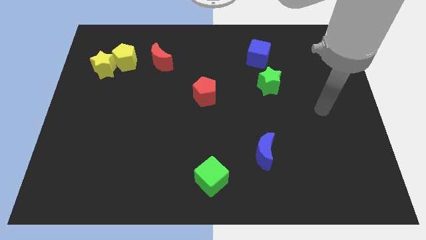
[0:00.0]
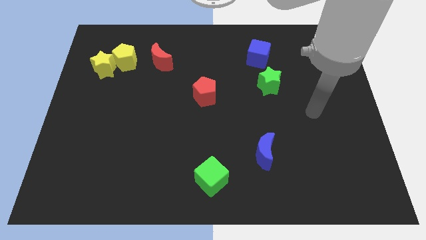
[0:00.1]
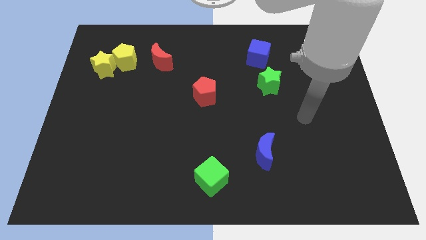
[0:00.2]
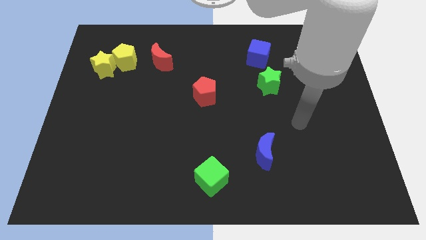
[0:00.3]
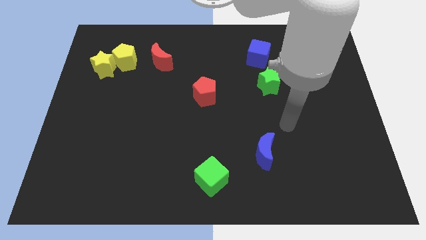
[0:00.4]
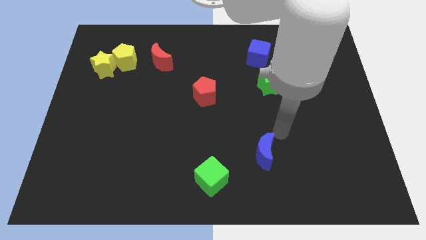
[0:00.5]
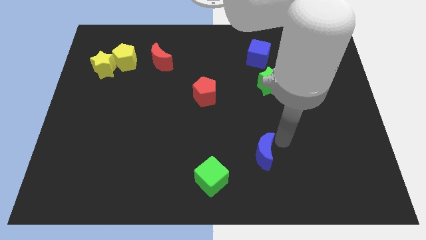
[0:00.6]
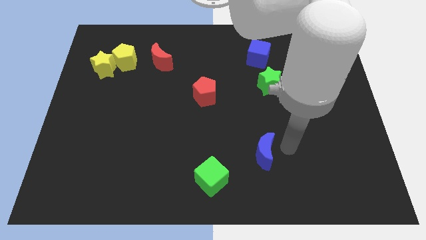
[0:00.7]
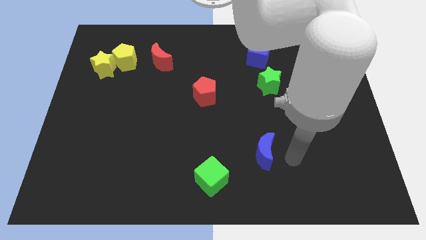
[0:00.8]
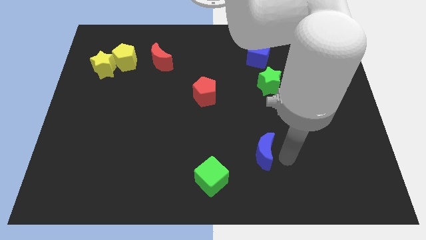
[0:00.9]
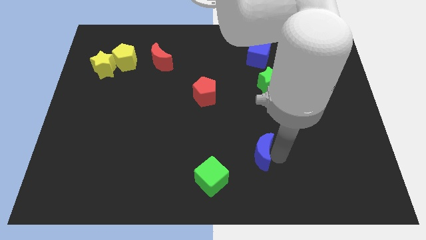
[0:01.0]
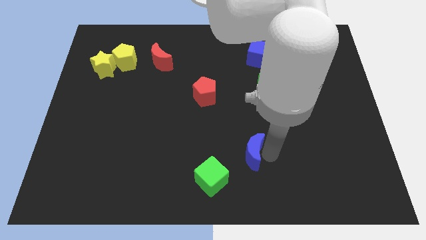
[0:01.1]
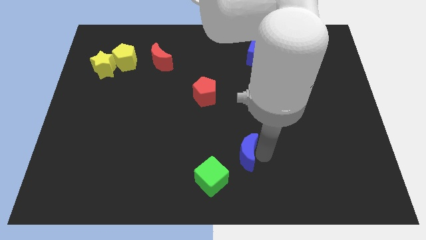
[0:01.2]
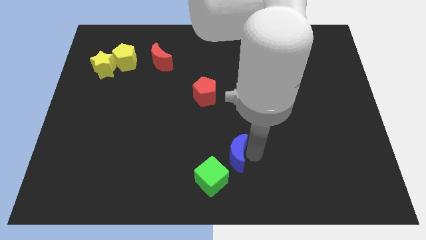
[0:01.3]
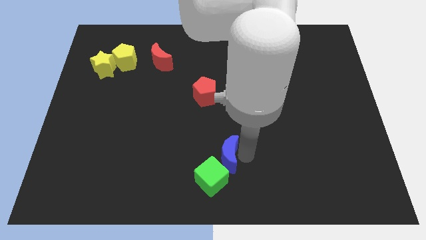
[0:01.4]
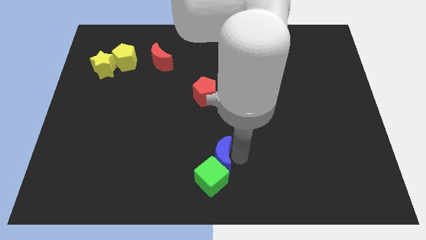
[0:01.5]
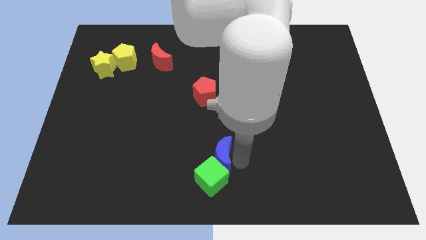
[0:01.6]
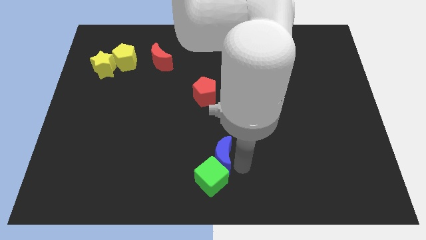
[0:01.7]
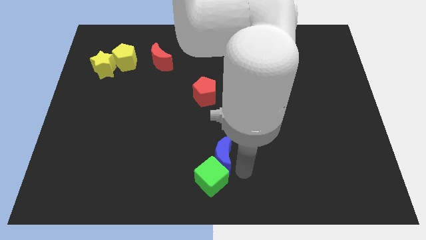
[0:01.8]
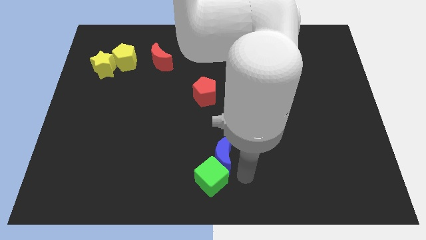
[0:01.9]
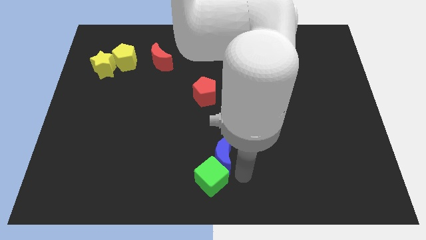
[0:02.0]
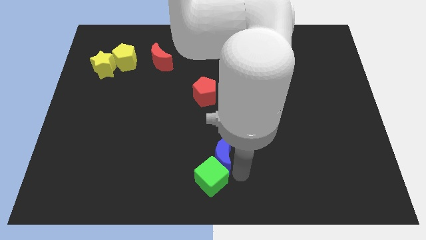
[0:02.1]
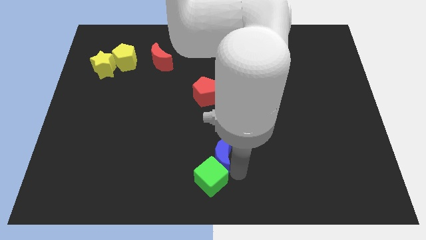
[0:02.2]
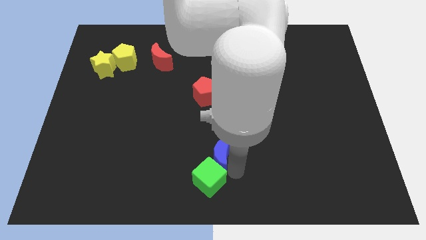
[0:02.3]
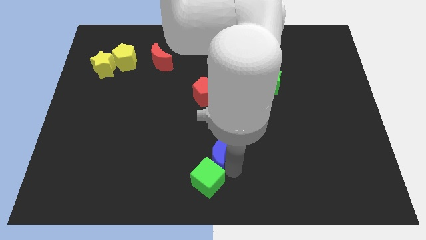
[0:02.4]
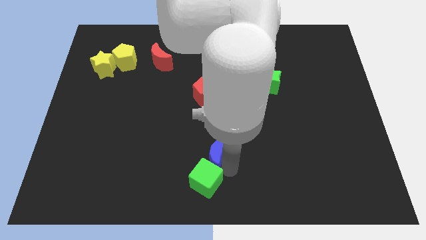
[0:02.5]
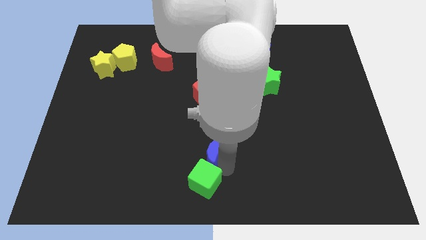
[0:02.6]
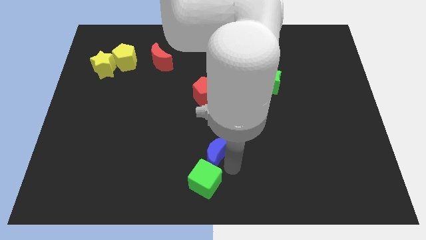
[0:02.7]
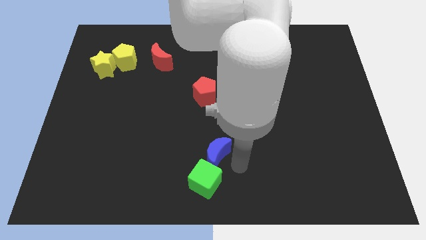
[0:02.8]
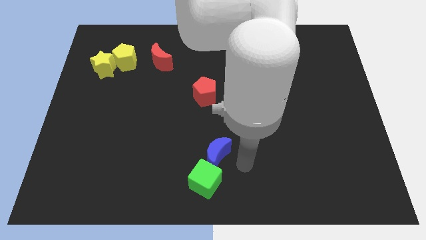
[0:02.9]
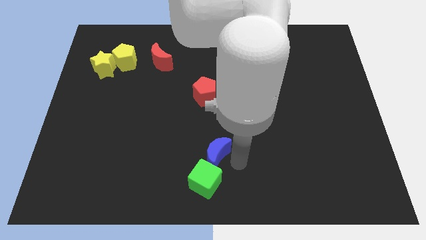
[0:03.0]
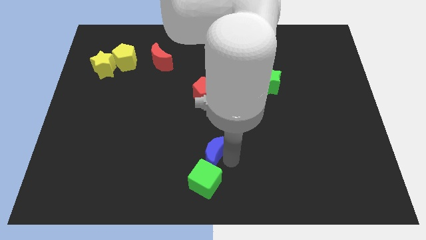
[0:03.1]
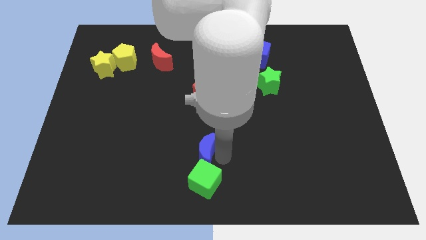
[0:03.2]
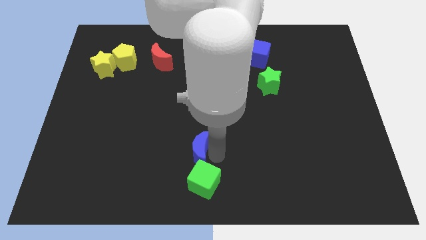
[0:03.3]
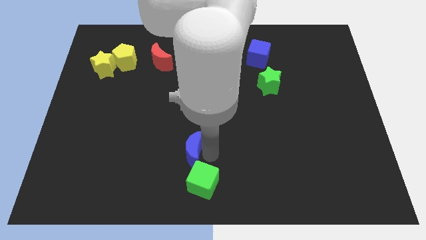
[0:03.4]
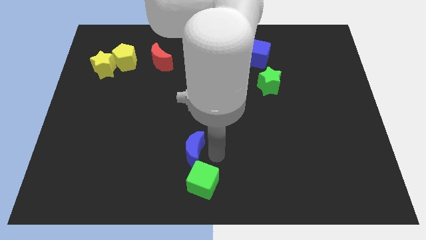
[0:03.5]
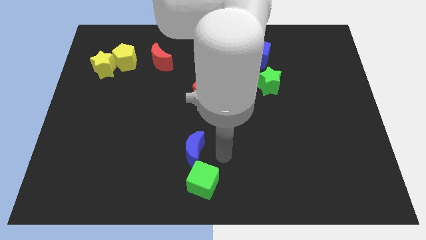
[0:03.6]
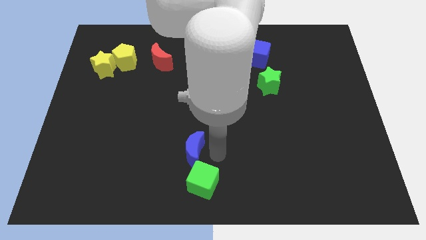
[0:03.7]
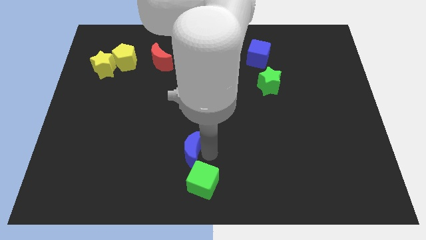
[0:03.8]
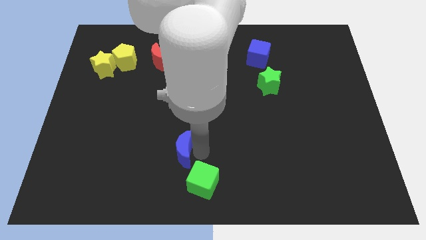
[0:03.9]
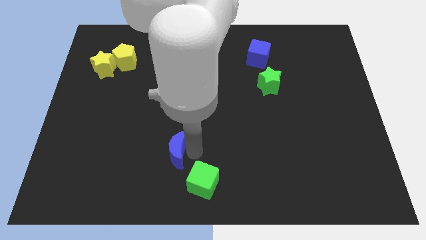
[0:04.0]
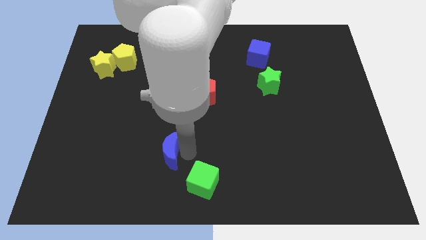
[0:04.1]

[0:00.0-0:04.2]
move the blue moon to the left

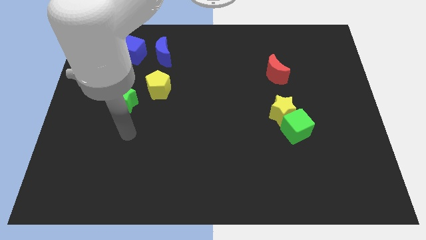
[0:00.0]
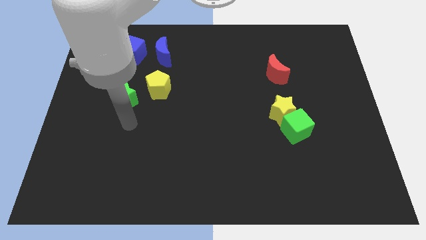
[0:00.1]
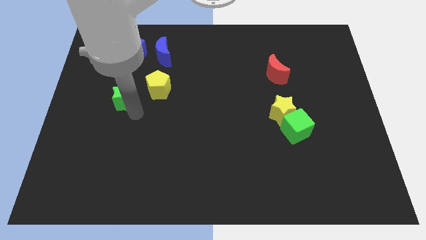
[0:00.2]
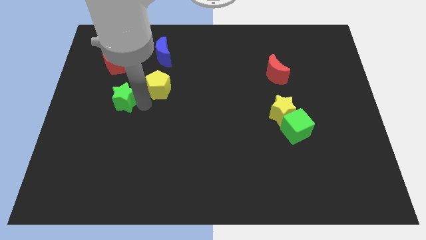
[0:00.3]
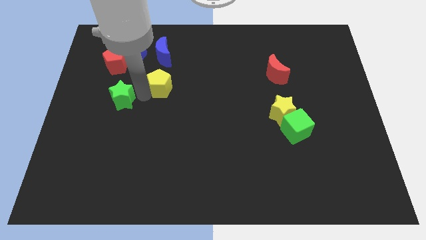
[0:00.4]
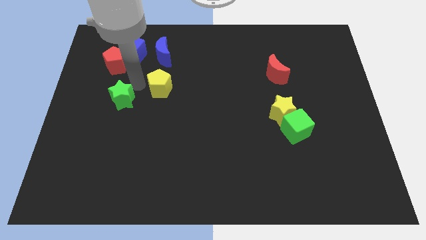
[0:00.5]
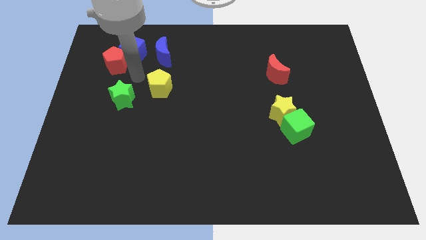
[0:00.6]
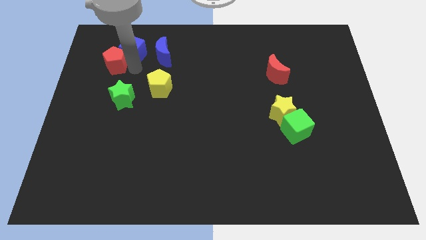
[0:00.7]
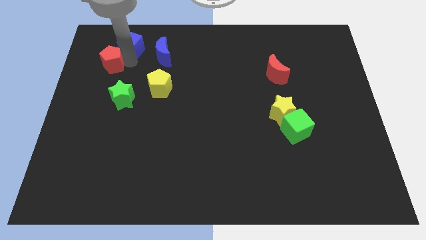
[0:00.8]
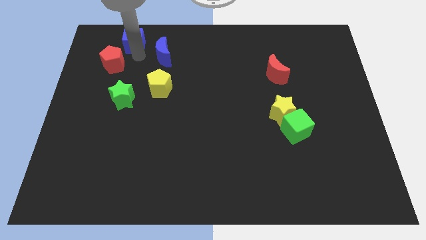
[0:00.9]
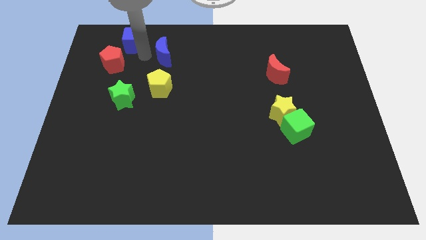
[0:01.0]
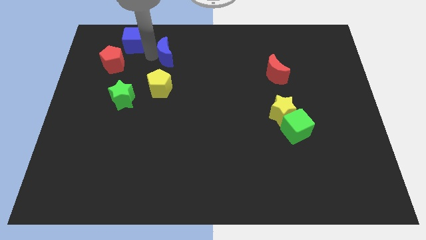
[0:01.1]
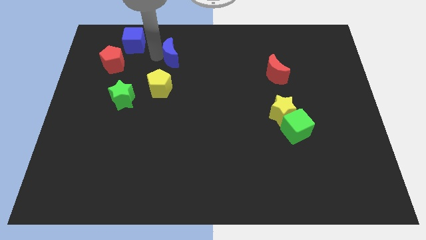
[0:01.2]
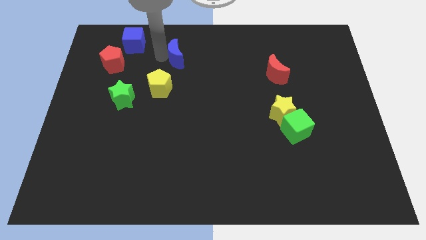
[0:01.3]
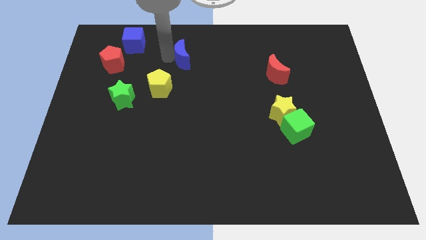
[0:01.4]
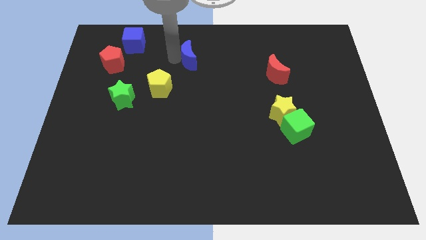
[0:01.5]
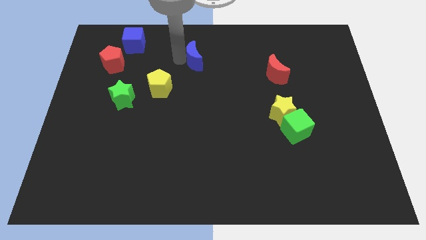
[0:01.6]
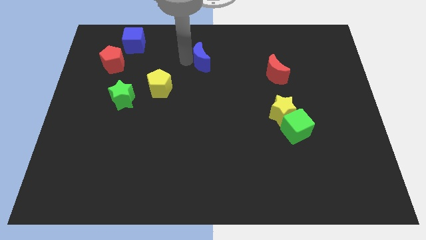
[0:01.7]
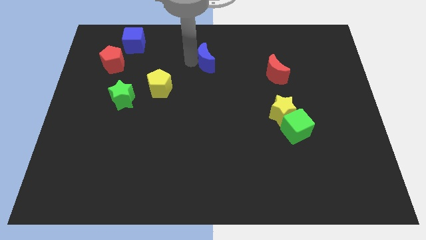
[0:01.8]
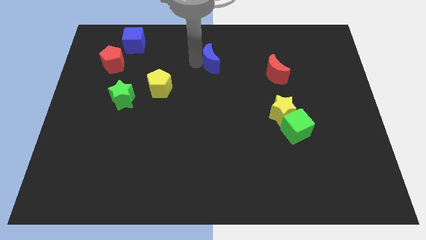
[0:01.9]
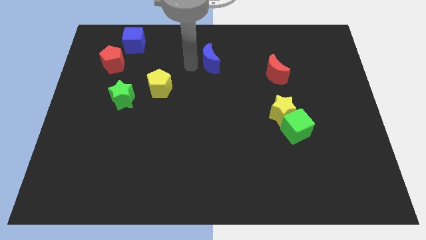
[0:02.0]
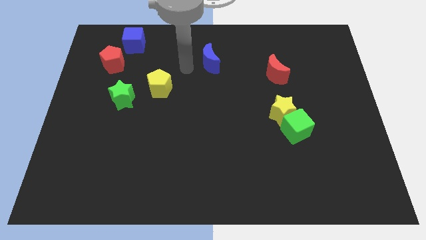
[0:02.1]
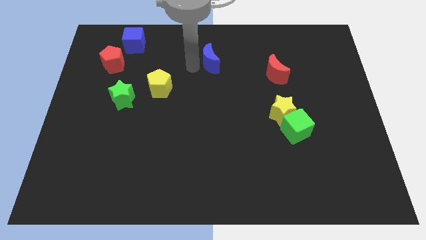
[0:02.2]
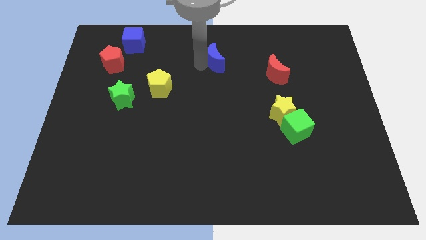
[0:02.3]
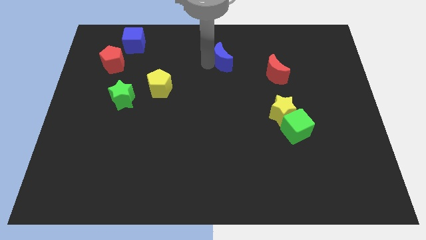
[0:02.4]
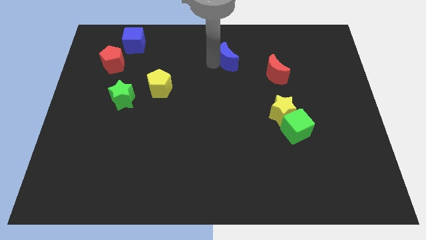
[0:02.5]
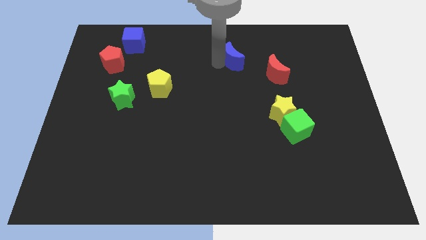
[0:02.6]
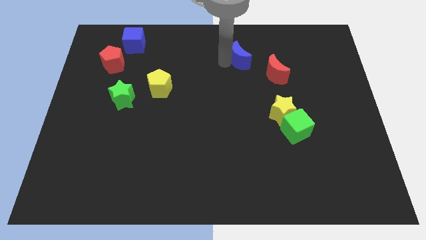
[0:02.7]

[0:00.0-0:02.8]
move the blue moon to the right

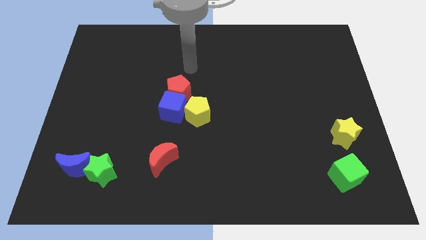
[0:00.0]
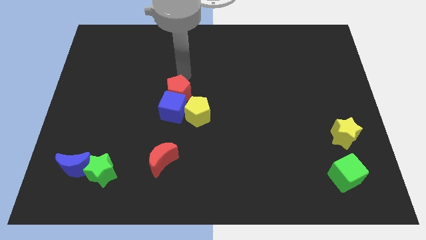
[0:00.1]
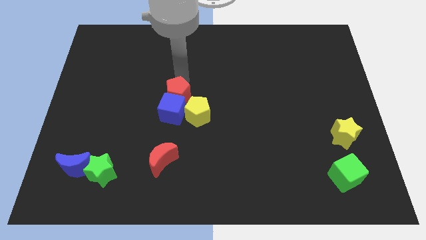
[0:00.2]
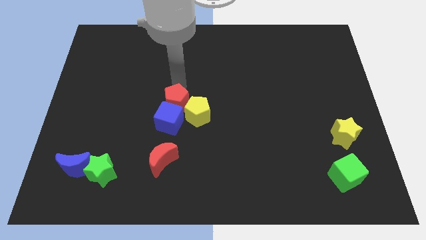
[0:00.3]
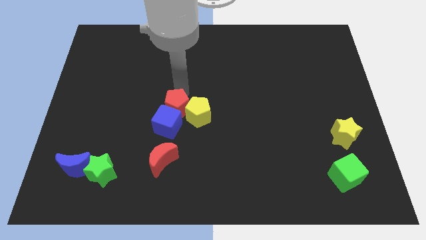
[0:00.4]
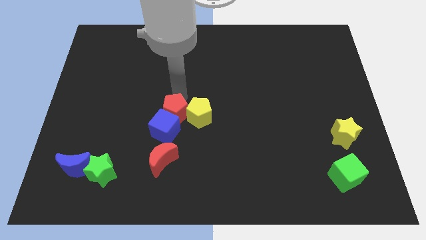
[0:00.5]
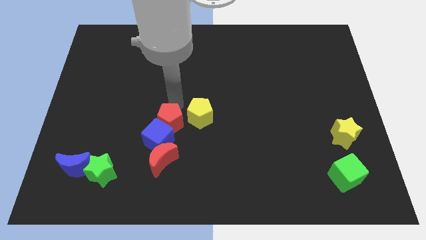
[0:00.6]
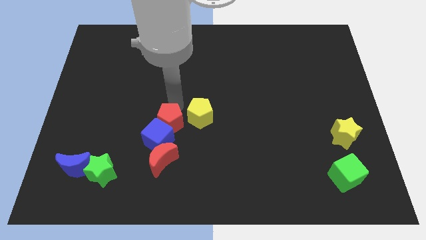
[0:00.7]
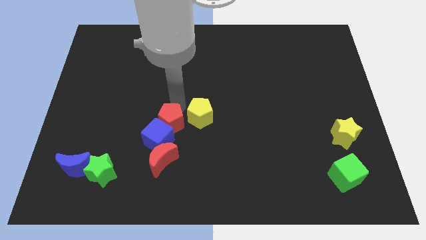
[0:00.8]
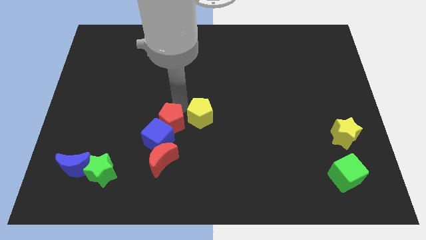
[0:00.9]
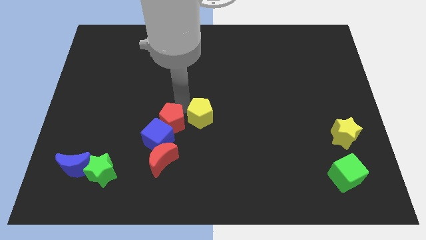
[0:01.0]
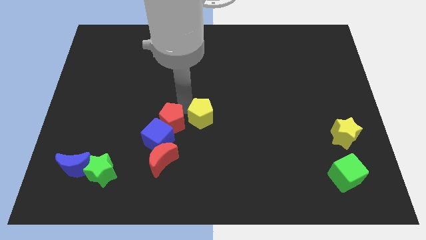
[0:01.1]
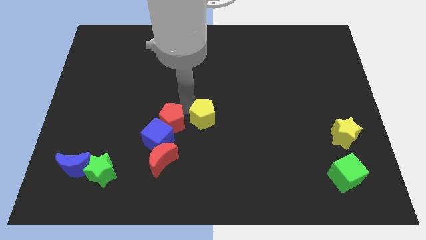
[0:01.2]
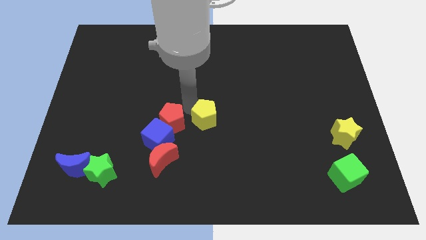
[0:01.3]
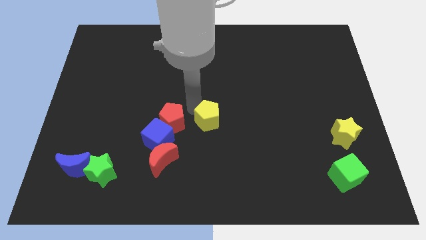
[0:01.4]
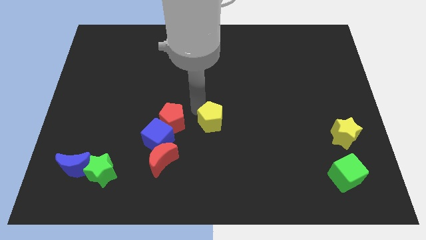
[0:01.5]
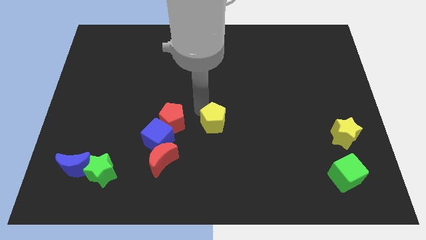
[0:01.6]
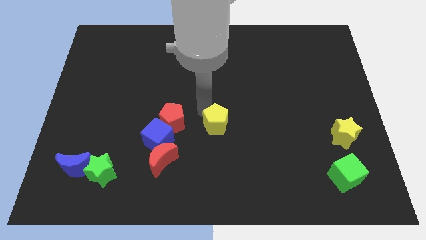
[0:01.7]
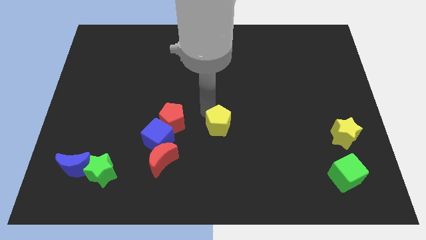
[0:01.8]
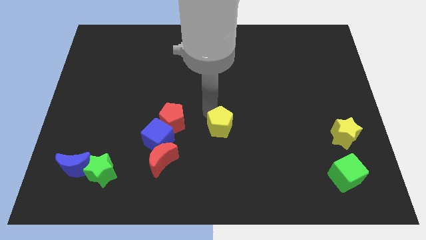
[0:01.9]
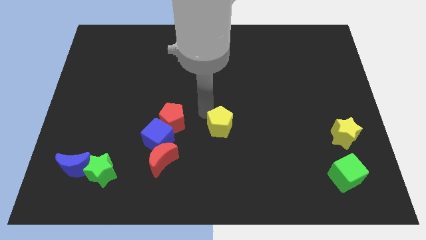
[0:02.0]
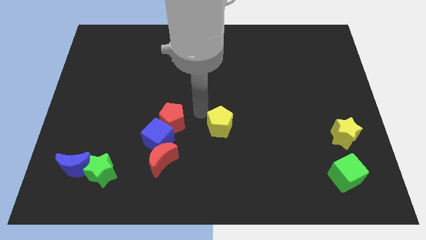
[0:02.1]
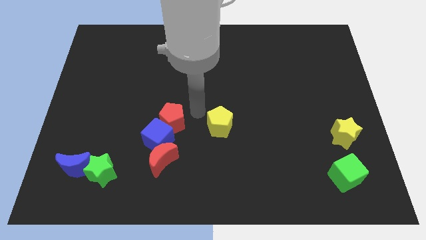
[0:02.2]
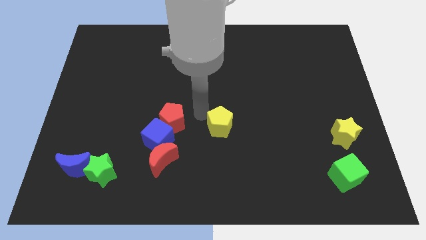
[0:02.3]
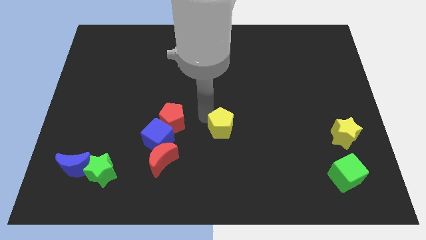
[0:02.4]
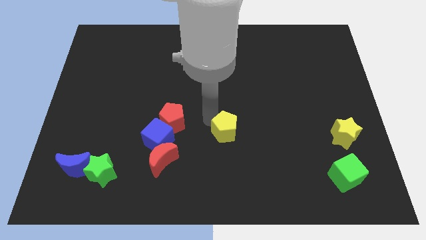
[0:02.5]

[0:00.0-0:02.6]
slide the yellow pentagon a little bit downwards and to the right
